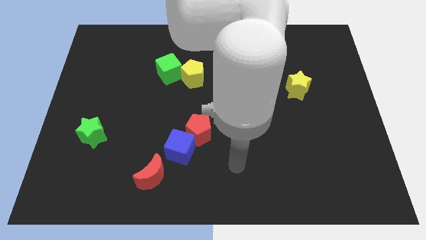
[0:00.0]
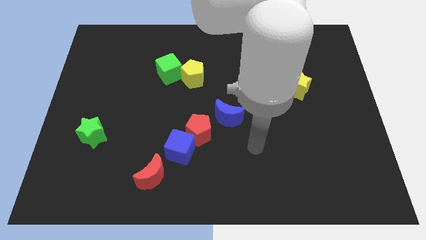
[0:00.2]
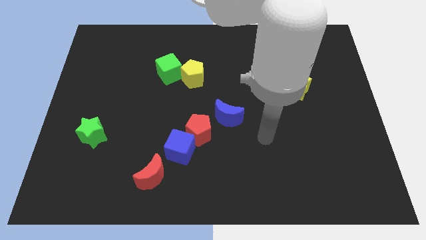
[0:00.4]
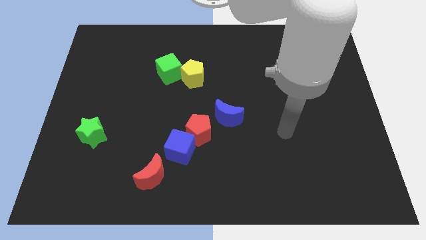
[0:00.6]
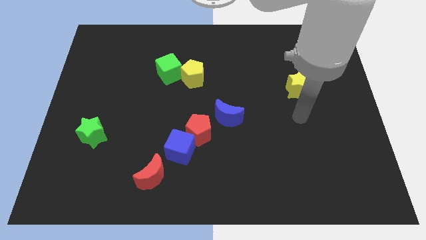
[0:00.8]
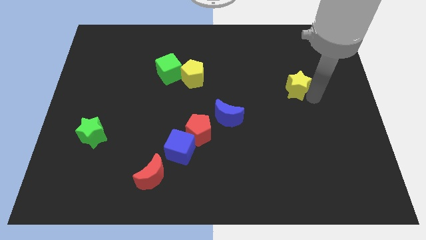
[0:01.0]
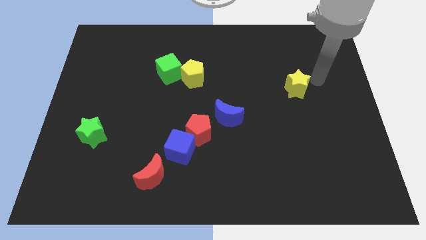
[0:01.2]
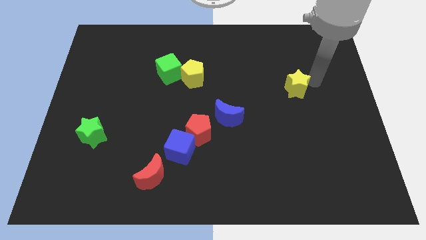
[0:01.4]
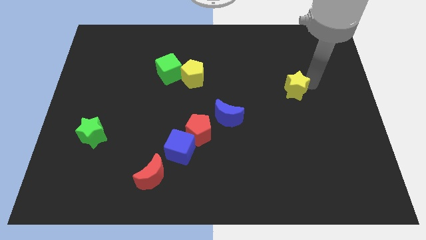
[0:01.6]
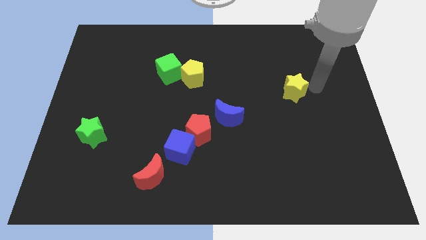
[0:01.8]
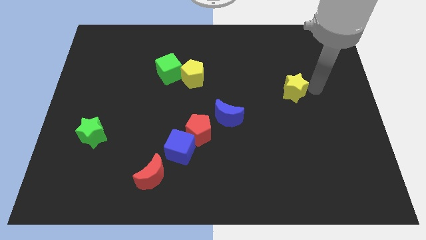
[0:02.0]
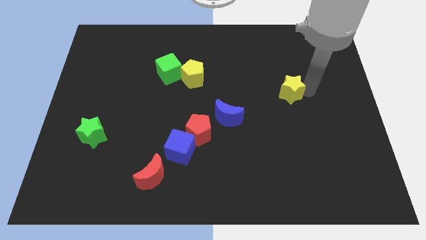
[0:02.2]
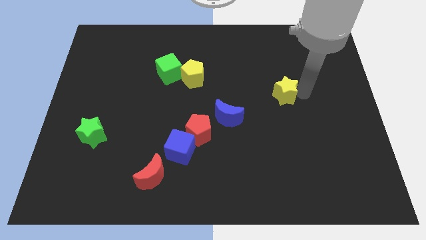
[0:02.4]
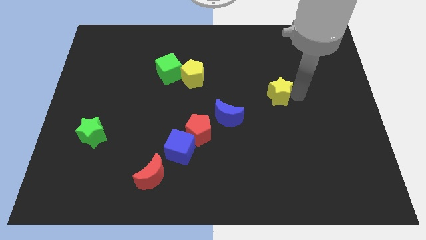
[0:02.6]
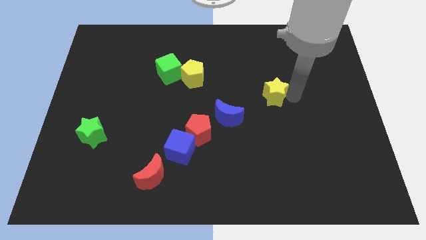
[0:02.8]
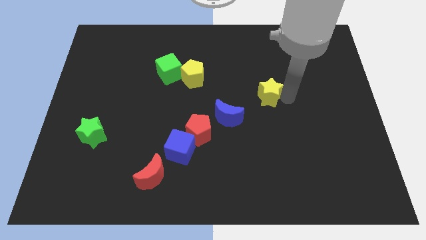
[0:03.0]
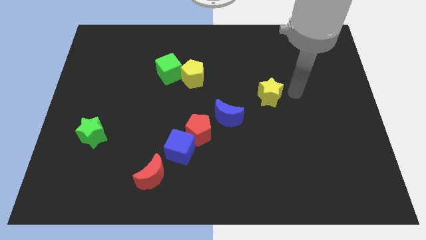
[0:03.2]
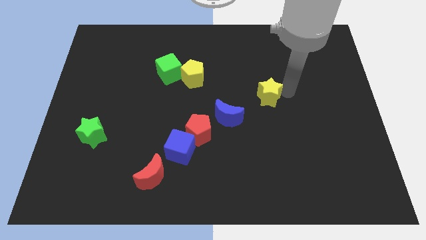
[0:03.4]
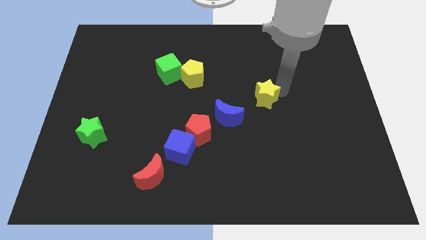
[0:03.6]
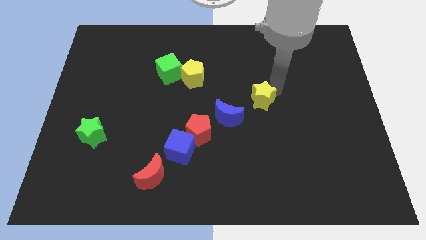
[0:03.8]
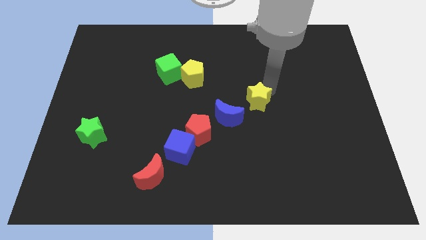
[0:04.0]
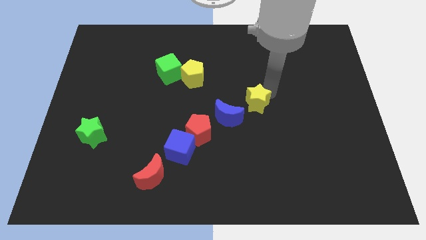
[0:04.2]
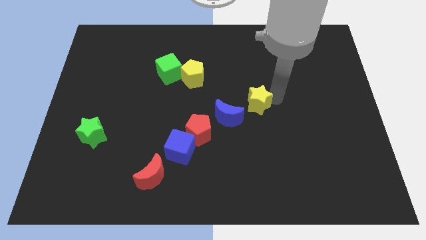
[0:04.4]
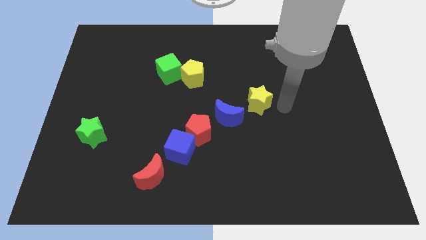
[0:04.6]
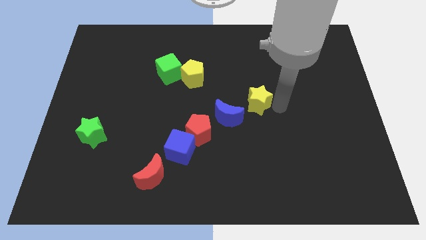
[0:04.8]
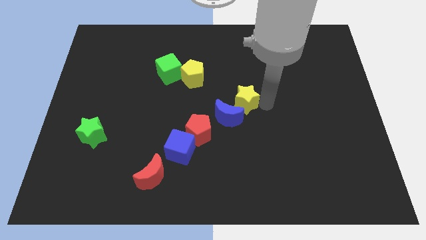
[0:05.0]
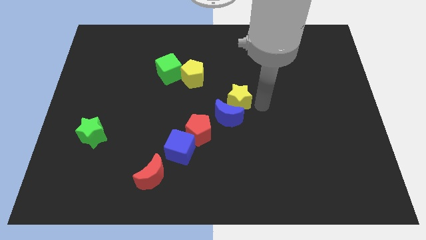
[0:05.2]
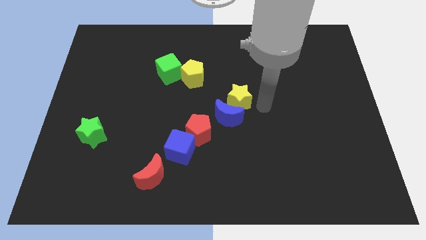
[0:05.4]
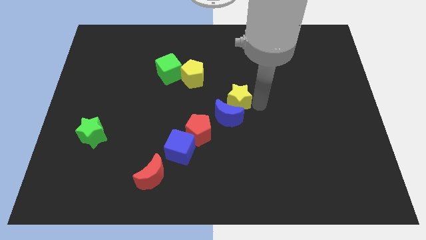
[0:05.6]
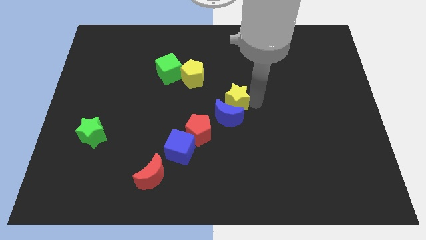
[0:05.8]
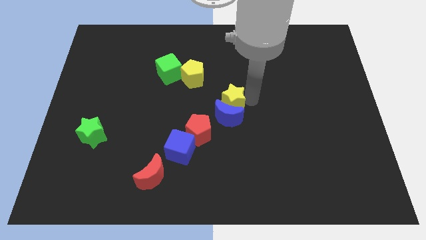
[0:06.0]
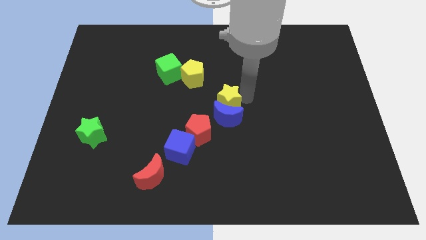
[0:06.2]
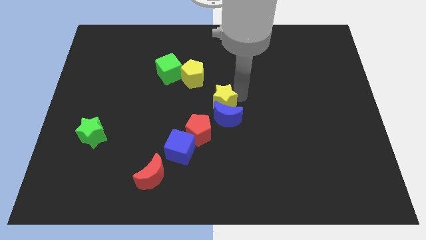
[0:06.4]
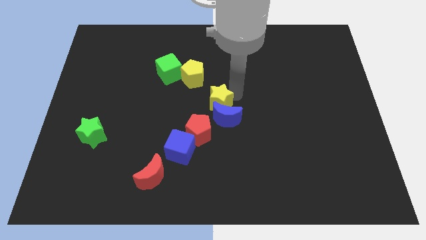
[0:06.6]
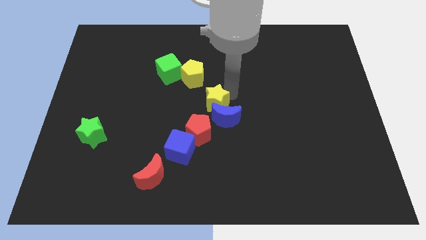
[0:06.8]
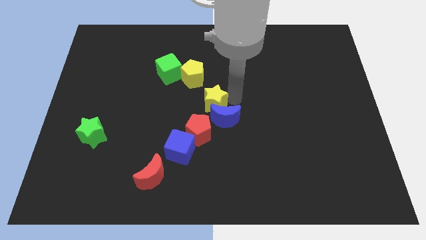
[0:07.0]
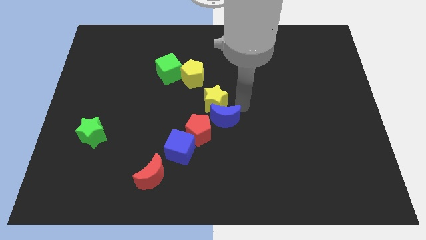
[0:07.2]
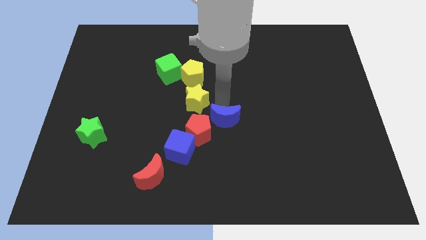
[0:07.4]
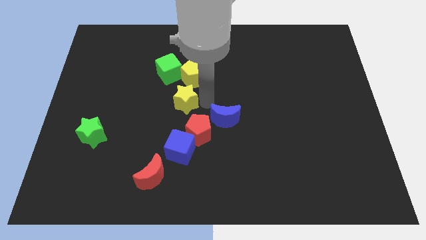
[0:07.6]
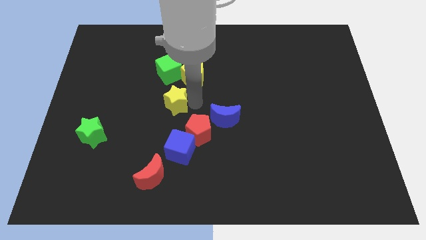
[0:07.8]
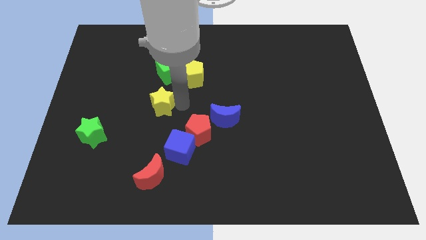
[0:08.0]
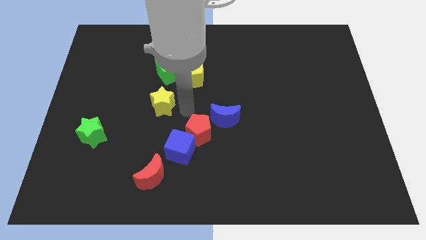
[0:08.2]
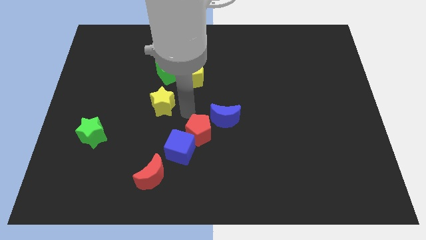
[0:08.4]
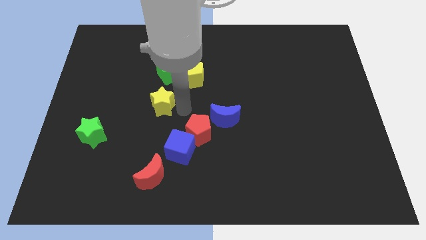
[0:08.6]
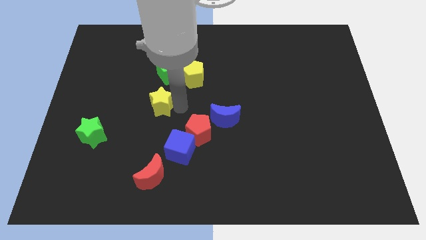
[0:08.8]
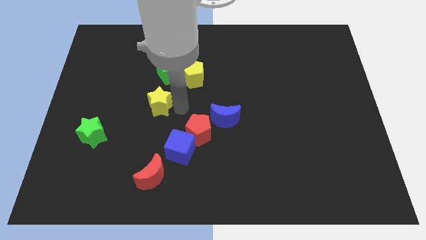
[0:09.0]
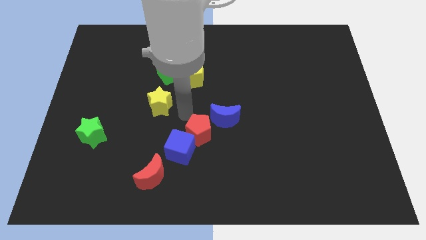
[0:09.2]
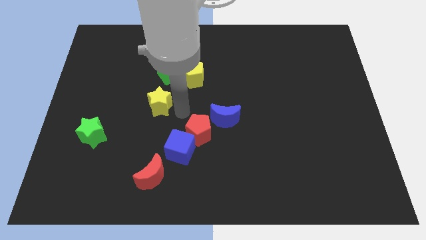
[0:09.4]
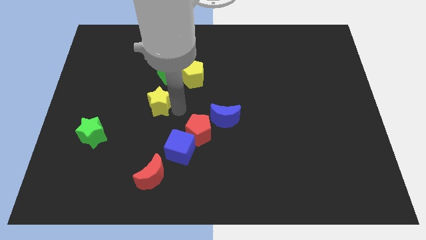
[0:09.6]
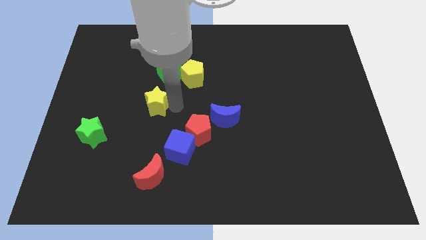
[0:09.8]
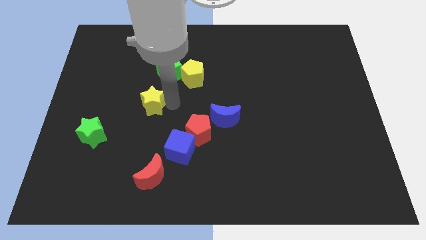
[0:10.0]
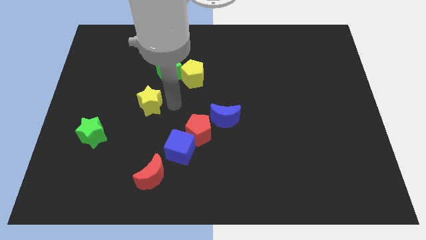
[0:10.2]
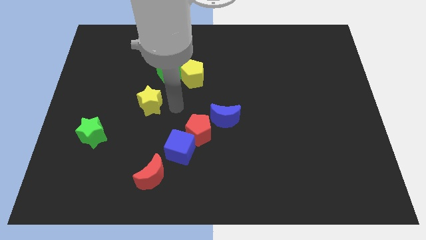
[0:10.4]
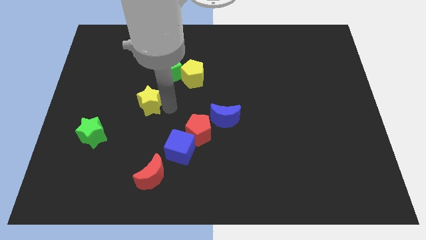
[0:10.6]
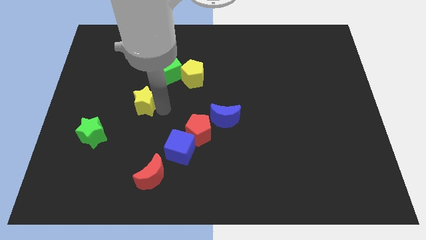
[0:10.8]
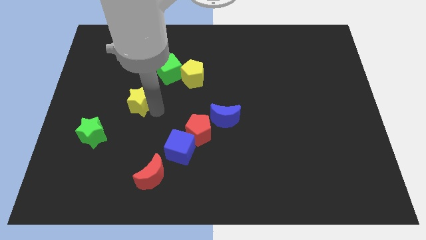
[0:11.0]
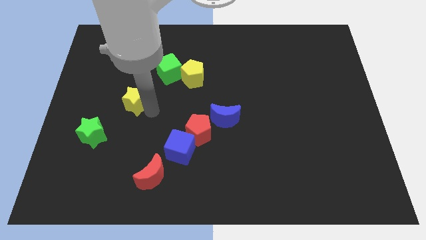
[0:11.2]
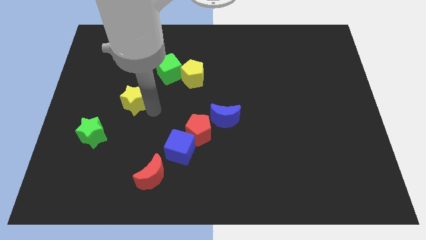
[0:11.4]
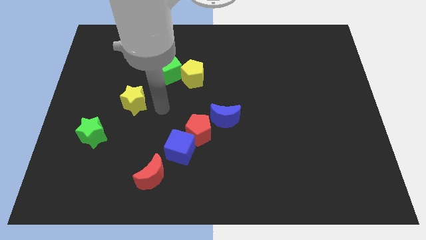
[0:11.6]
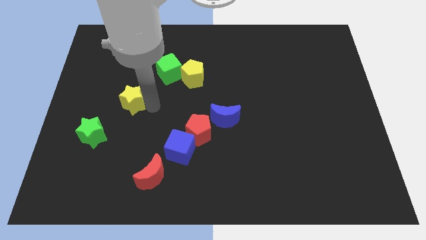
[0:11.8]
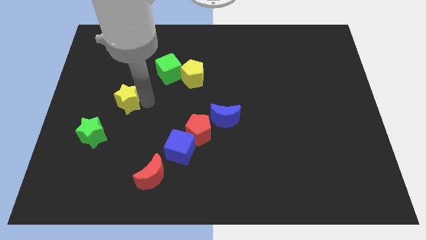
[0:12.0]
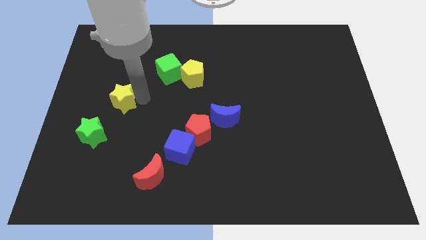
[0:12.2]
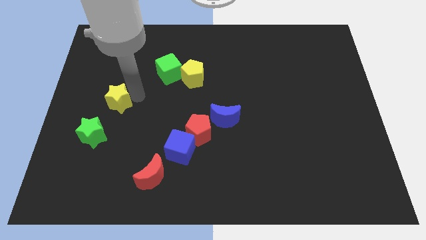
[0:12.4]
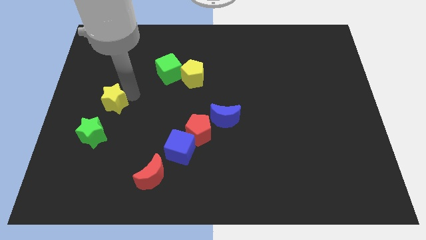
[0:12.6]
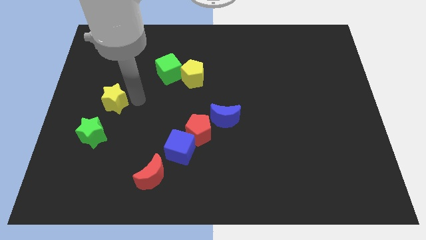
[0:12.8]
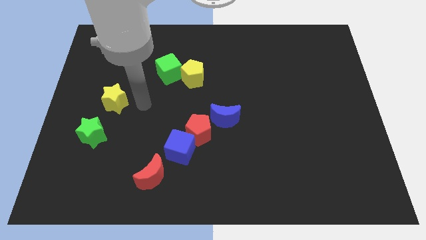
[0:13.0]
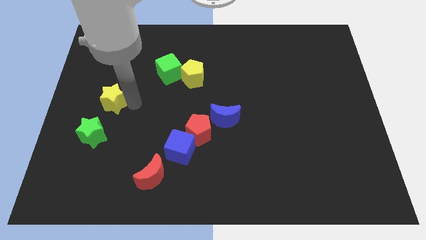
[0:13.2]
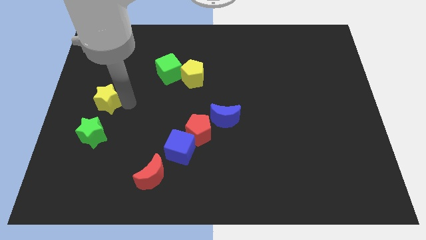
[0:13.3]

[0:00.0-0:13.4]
put the yellow star to the left side of the board
